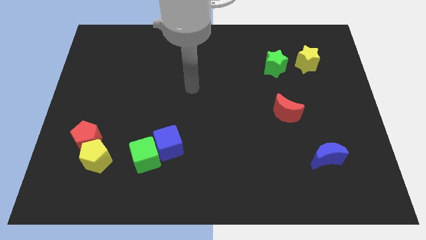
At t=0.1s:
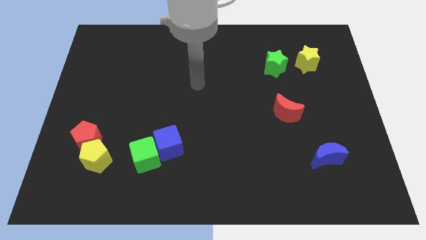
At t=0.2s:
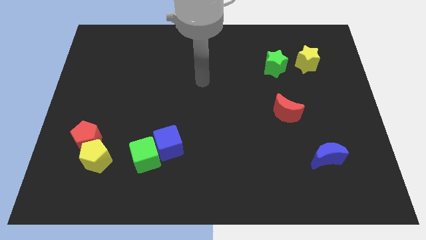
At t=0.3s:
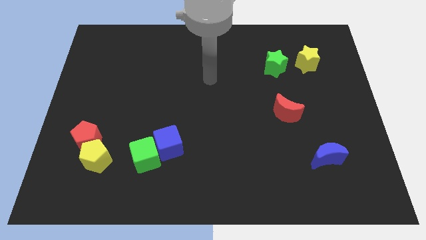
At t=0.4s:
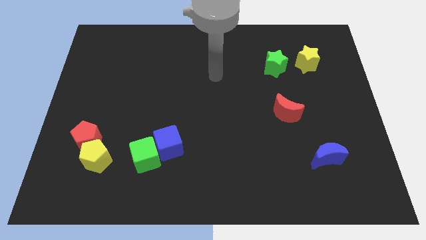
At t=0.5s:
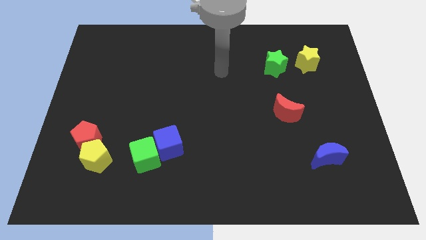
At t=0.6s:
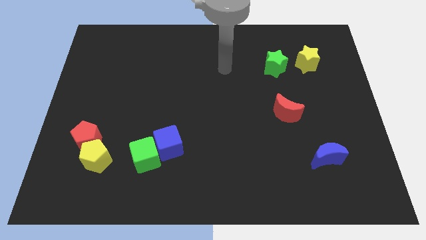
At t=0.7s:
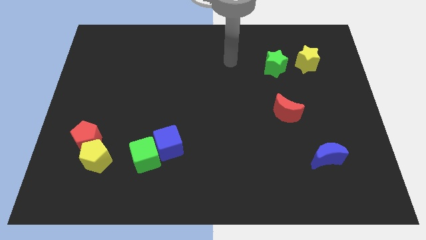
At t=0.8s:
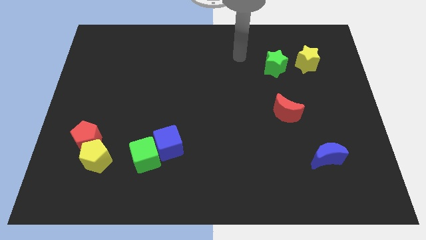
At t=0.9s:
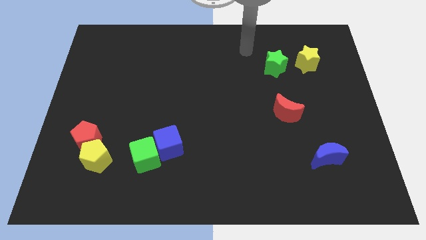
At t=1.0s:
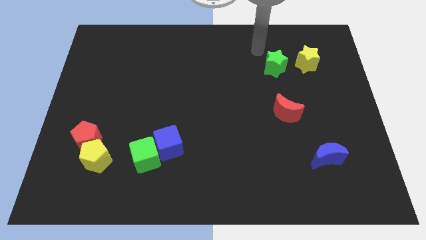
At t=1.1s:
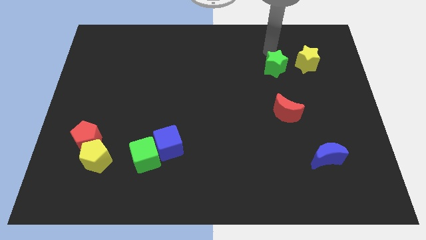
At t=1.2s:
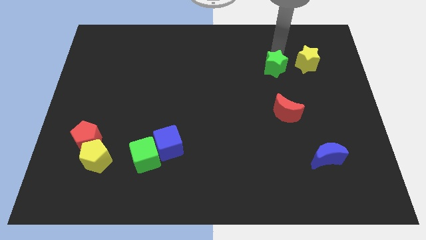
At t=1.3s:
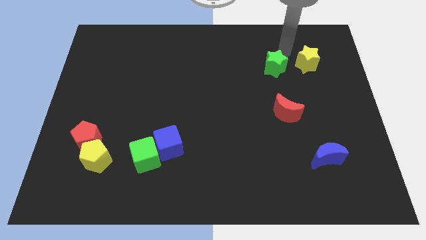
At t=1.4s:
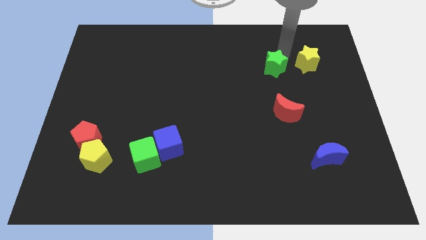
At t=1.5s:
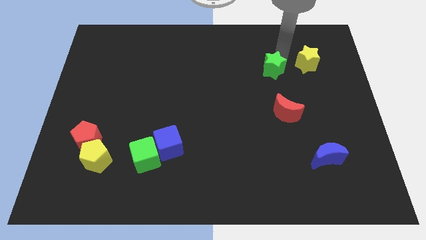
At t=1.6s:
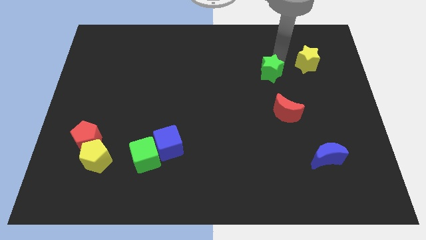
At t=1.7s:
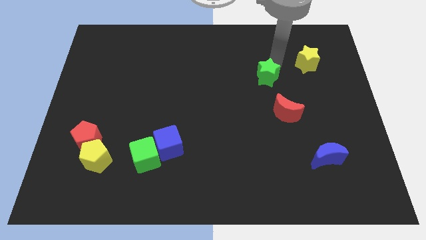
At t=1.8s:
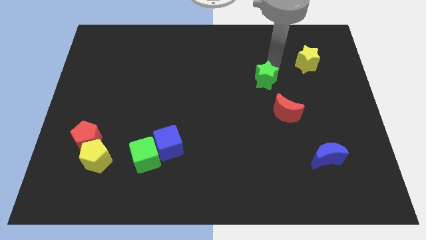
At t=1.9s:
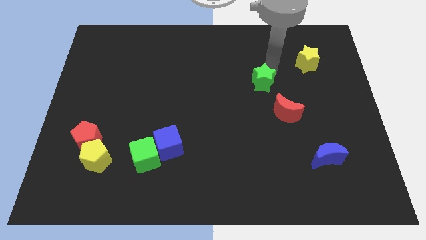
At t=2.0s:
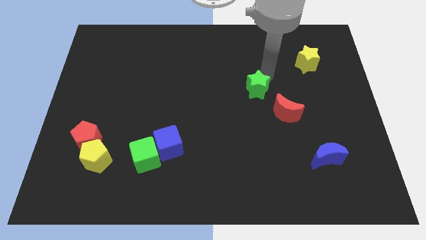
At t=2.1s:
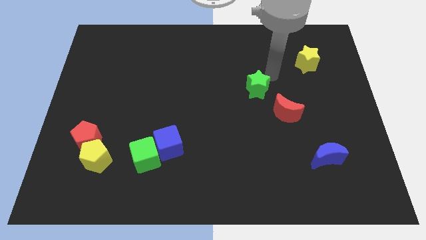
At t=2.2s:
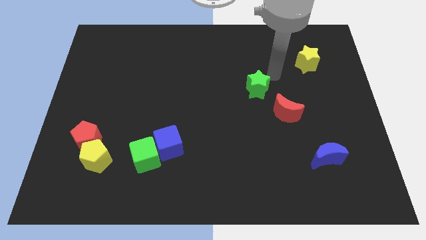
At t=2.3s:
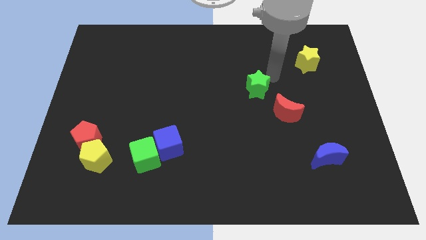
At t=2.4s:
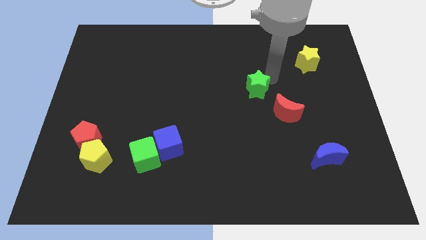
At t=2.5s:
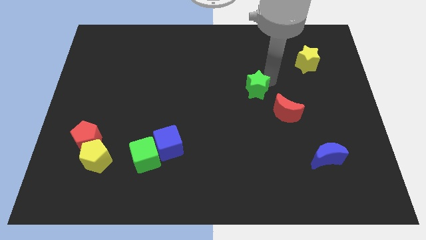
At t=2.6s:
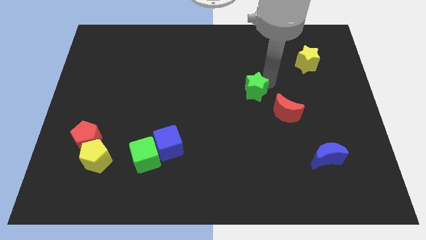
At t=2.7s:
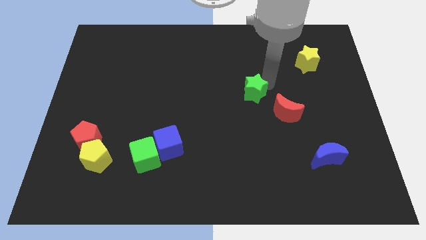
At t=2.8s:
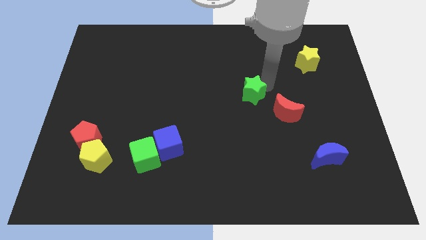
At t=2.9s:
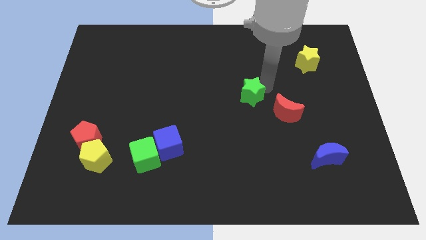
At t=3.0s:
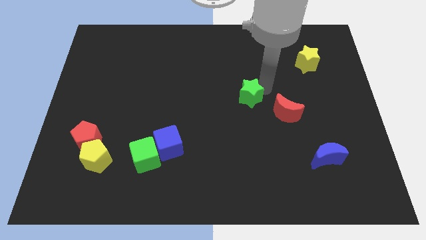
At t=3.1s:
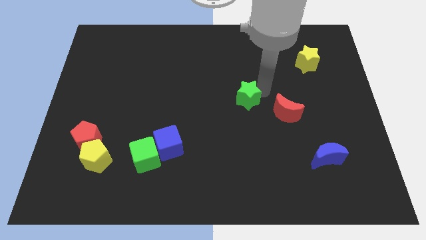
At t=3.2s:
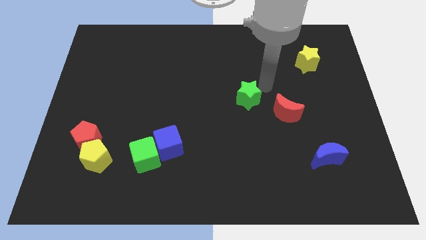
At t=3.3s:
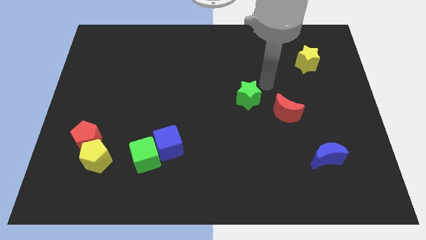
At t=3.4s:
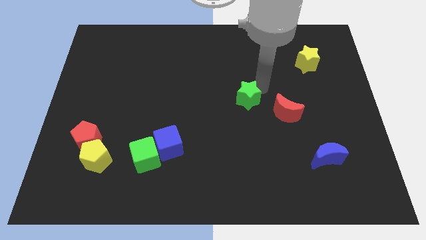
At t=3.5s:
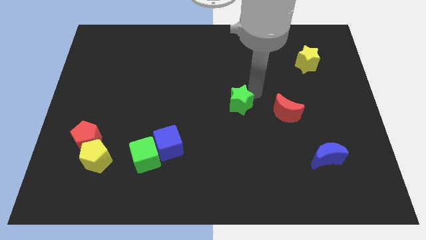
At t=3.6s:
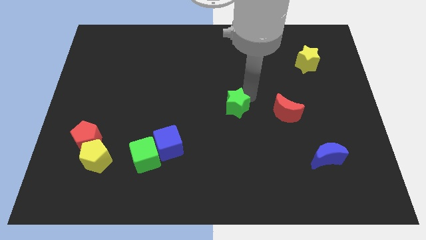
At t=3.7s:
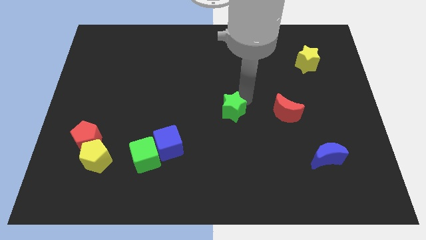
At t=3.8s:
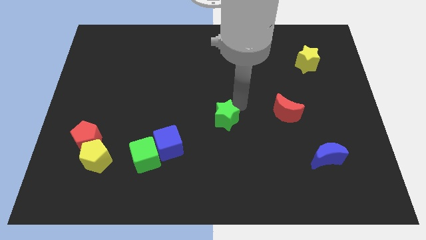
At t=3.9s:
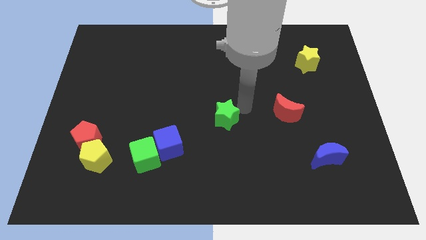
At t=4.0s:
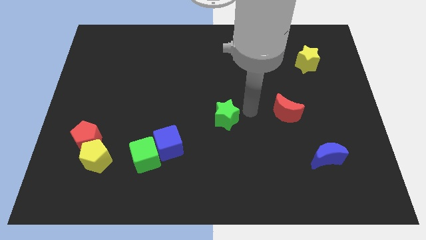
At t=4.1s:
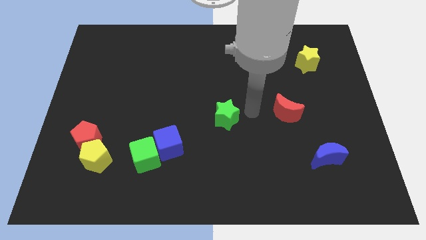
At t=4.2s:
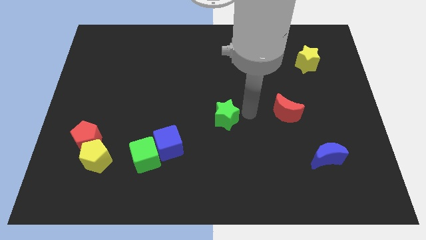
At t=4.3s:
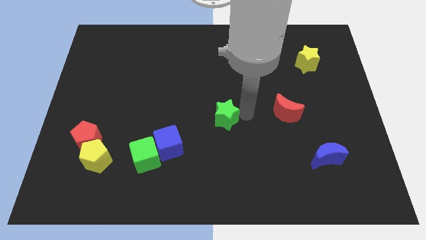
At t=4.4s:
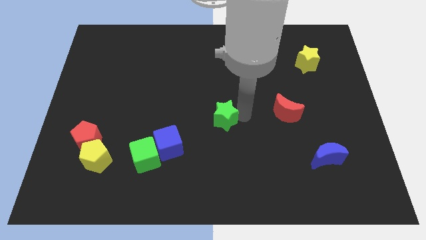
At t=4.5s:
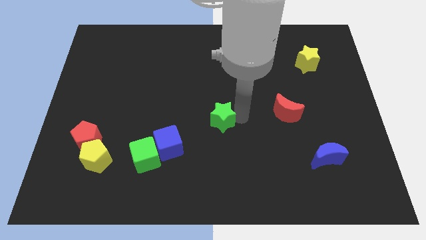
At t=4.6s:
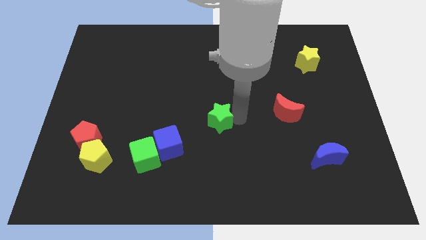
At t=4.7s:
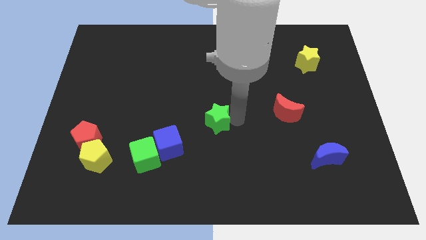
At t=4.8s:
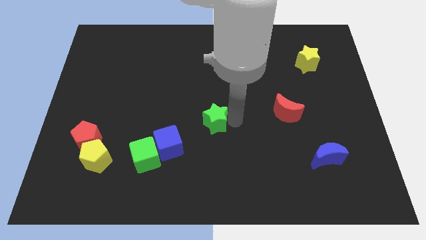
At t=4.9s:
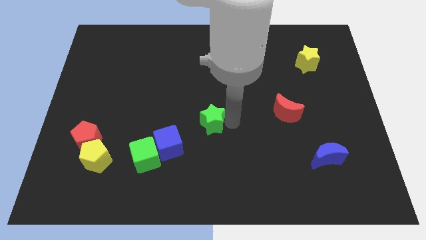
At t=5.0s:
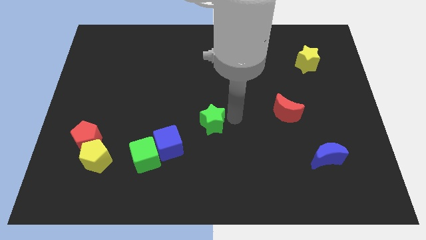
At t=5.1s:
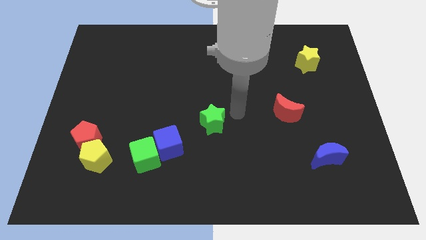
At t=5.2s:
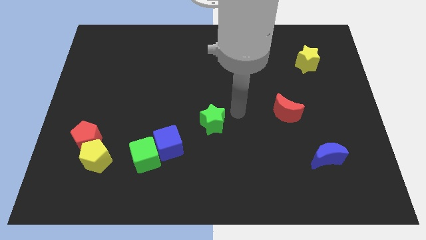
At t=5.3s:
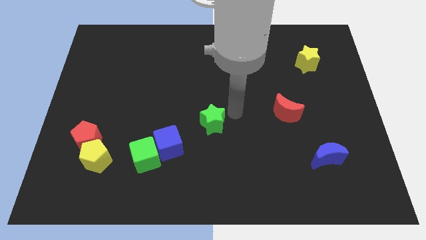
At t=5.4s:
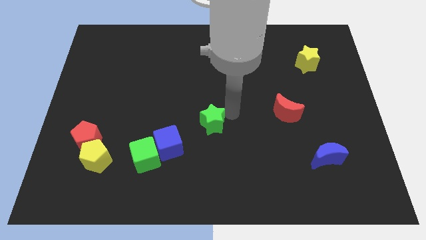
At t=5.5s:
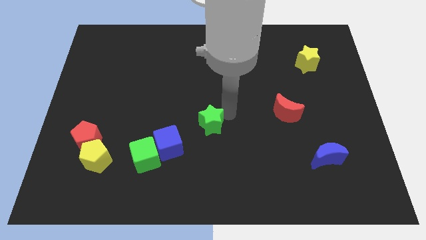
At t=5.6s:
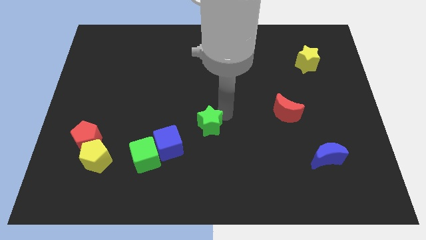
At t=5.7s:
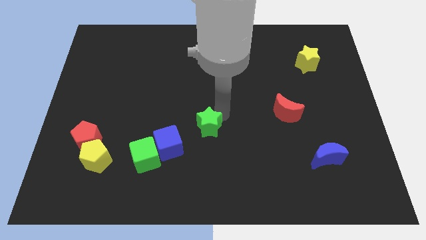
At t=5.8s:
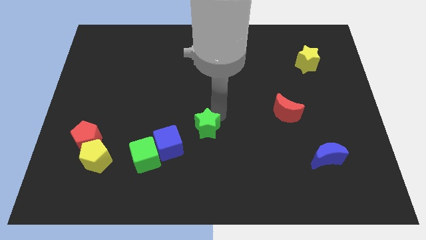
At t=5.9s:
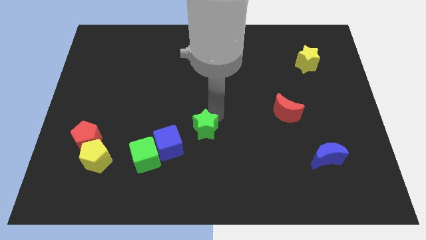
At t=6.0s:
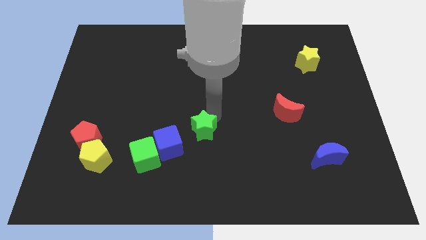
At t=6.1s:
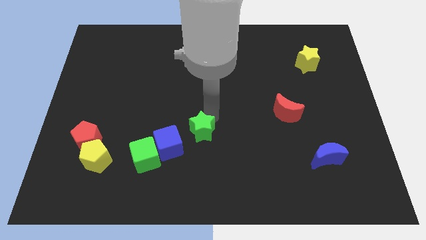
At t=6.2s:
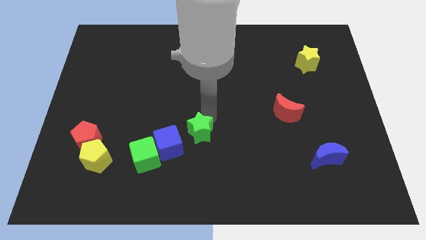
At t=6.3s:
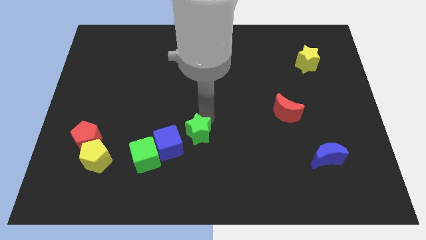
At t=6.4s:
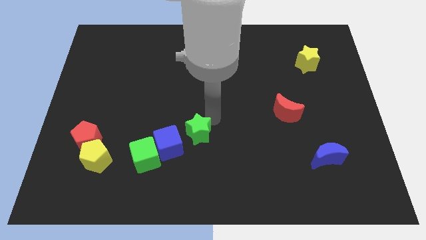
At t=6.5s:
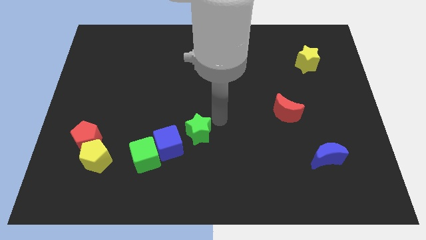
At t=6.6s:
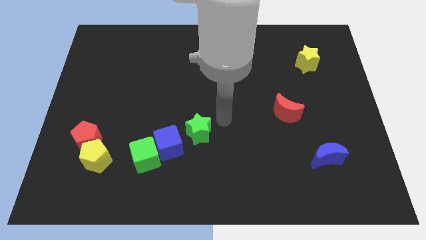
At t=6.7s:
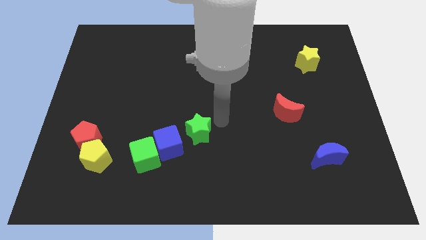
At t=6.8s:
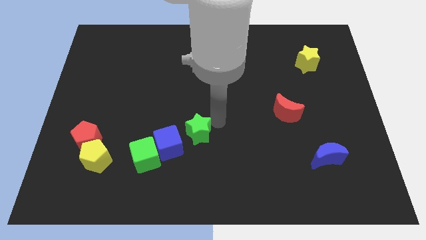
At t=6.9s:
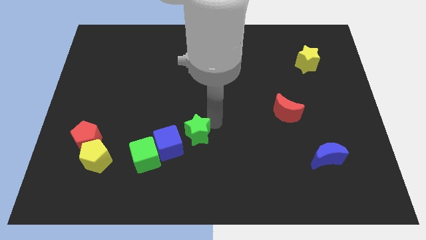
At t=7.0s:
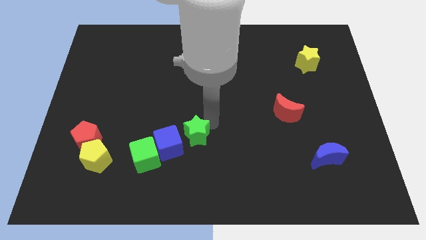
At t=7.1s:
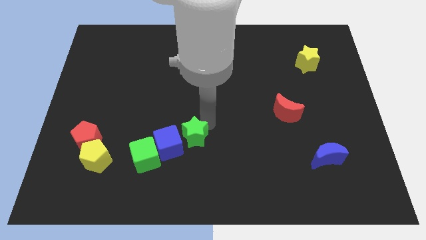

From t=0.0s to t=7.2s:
move the green star close to the blue cube

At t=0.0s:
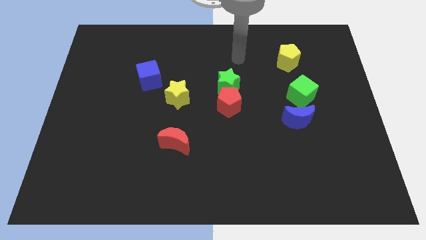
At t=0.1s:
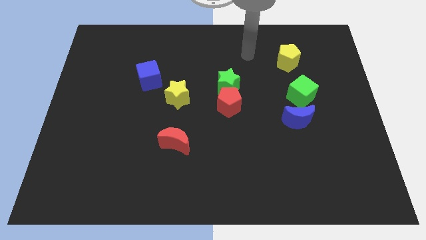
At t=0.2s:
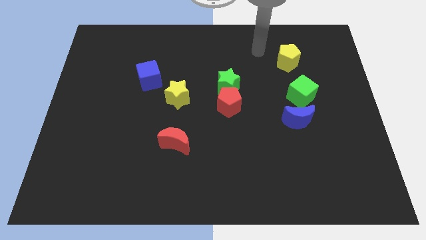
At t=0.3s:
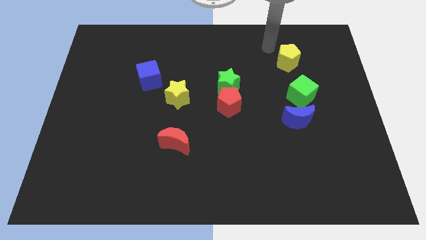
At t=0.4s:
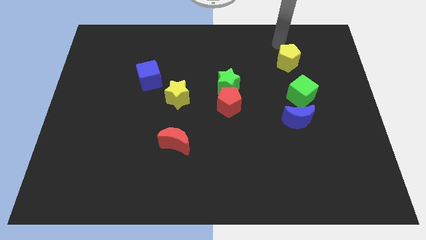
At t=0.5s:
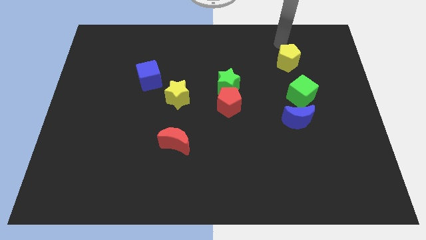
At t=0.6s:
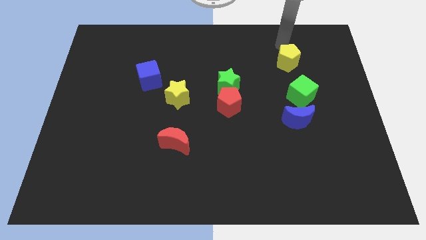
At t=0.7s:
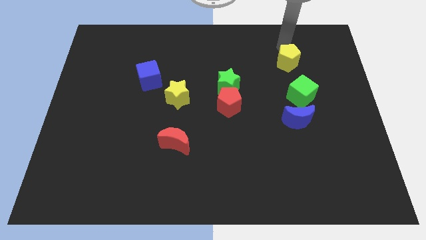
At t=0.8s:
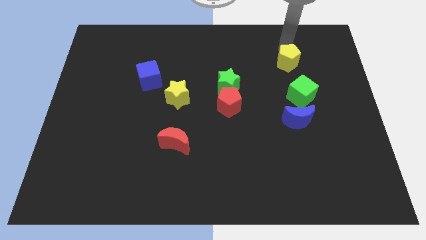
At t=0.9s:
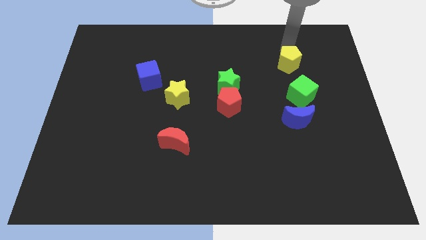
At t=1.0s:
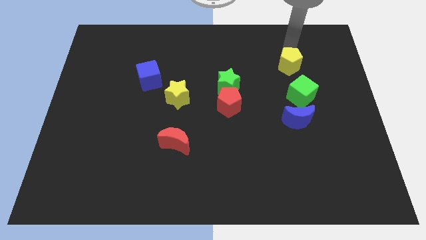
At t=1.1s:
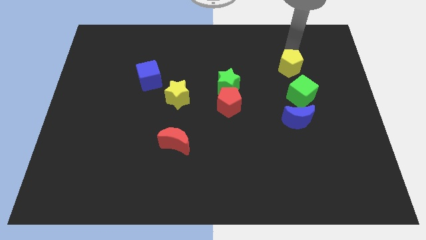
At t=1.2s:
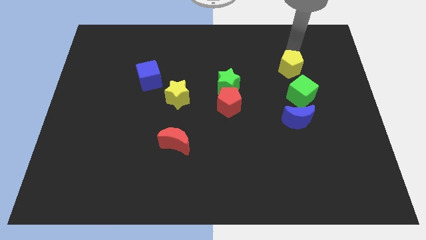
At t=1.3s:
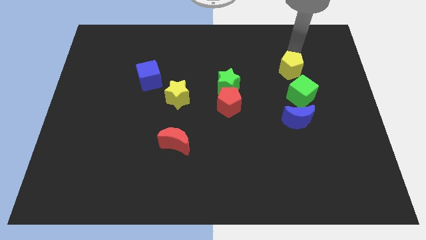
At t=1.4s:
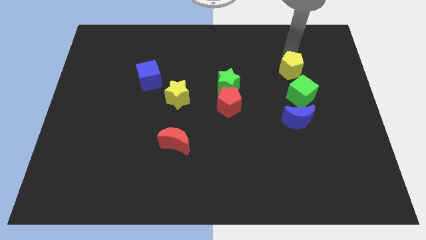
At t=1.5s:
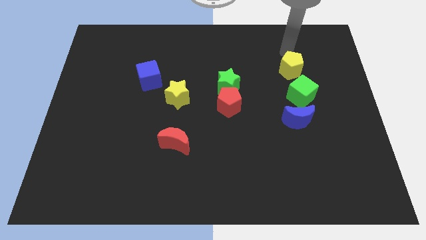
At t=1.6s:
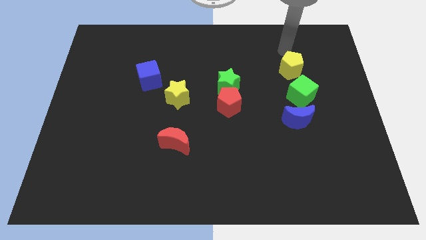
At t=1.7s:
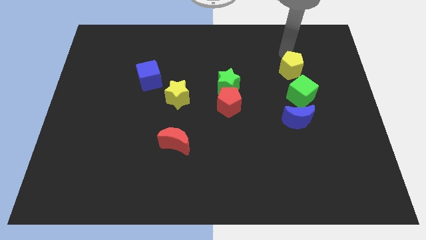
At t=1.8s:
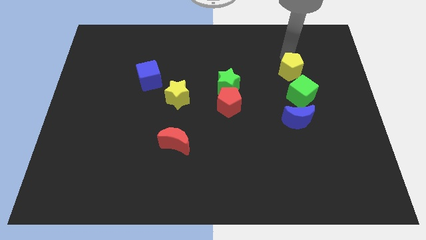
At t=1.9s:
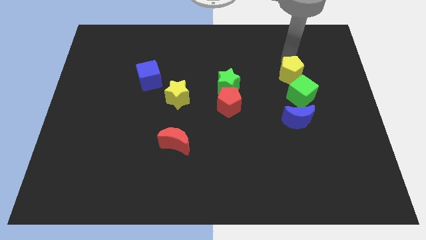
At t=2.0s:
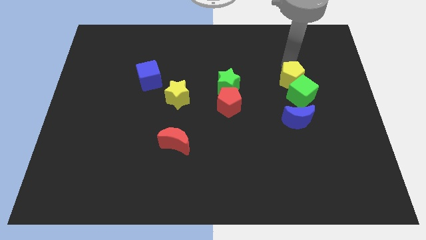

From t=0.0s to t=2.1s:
put the yellow pentagon close to the green cube
